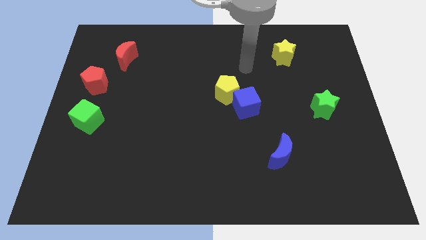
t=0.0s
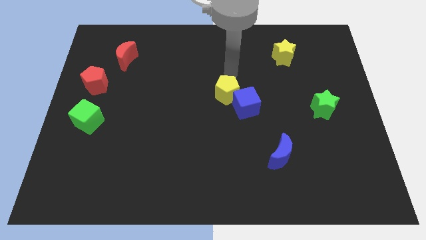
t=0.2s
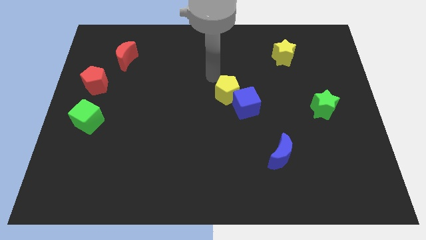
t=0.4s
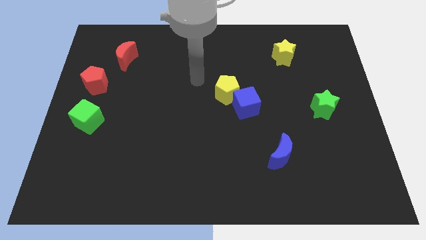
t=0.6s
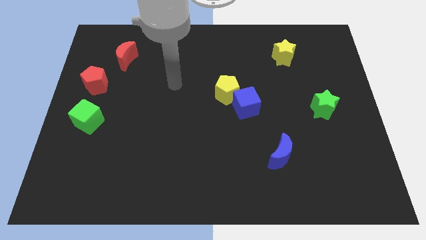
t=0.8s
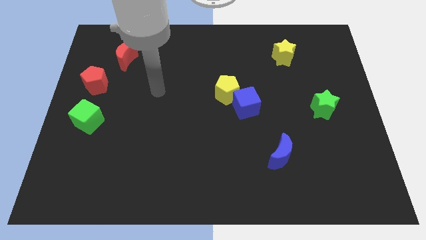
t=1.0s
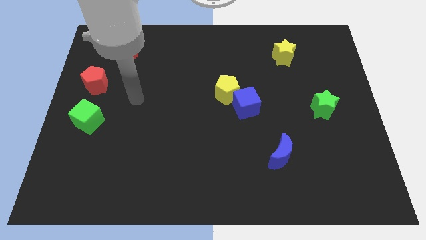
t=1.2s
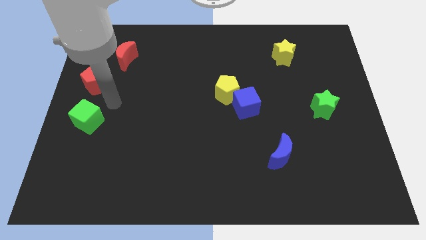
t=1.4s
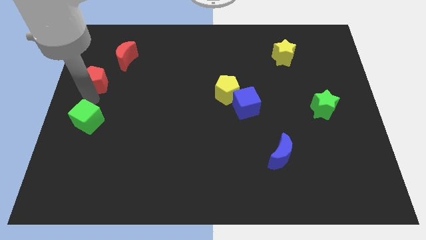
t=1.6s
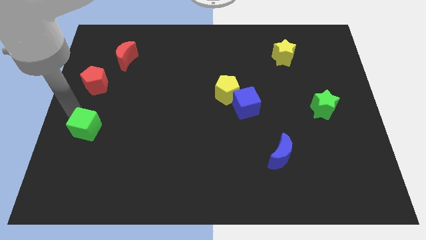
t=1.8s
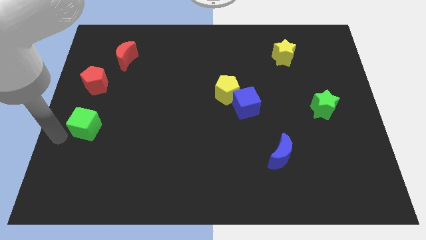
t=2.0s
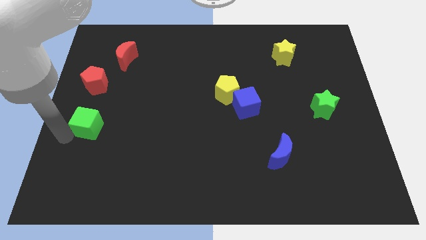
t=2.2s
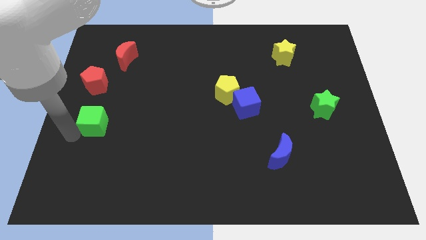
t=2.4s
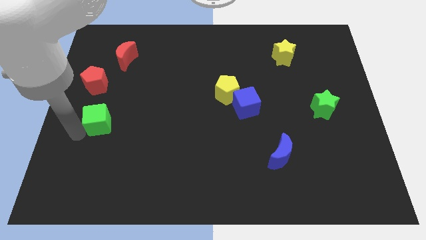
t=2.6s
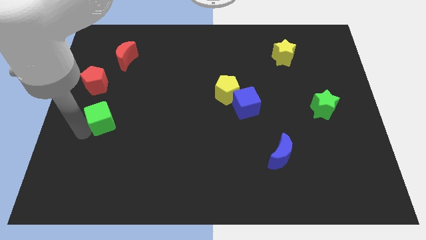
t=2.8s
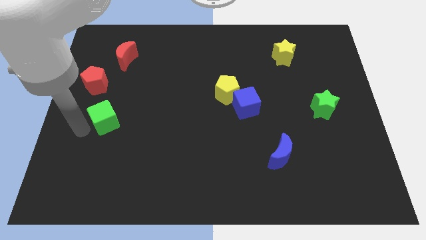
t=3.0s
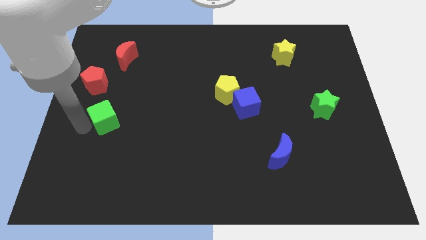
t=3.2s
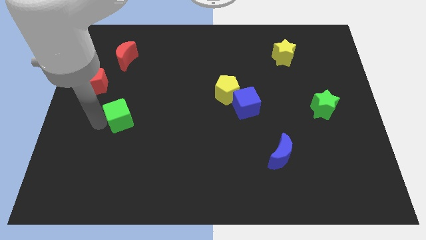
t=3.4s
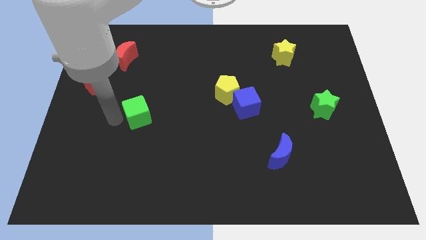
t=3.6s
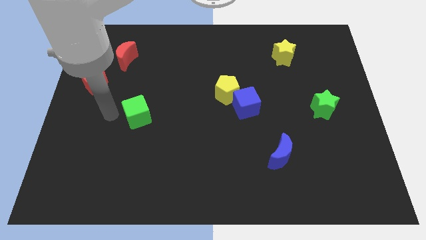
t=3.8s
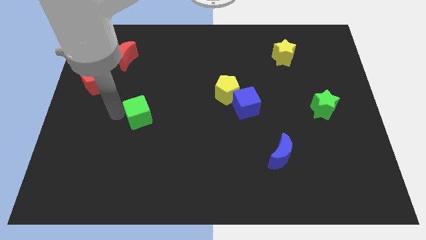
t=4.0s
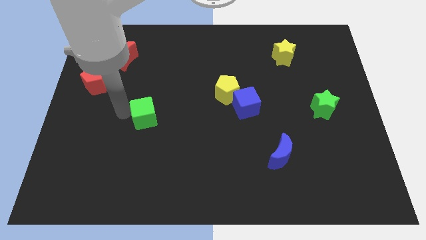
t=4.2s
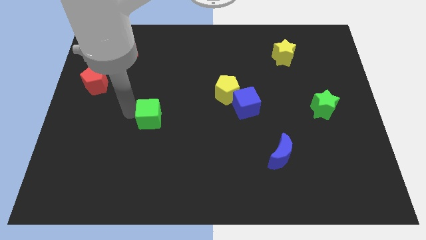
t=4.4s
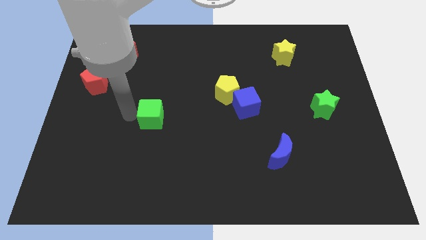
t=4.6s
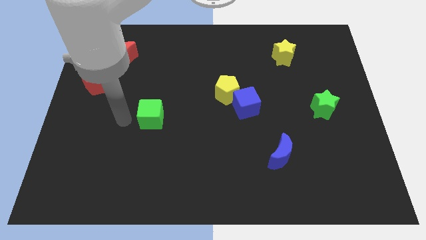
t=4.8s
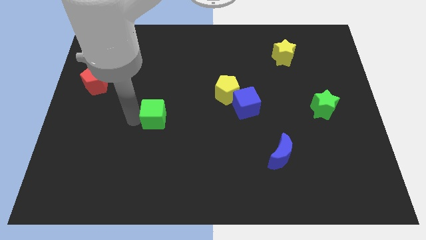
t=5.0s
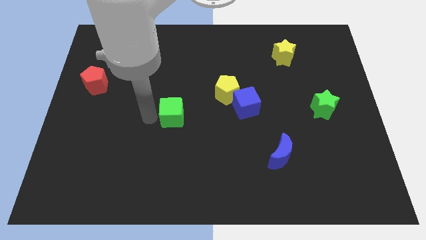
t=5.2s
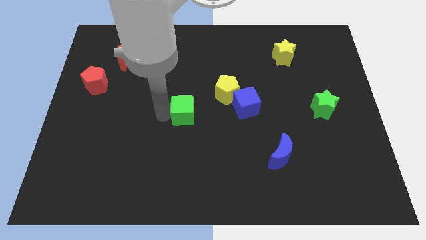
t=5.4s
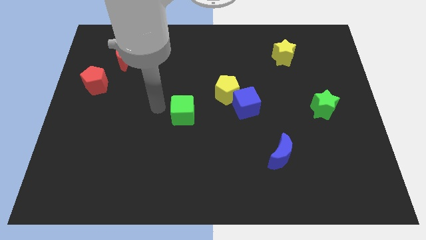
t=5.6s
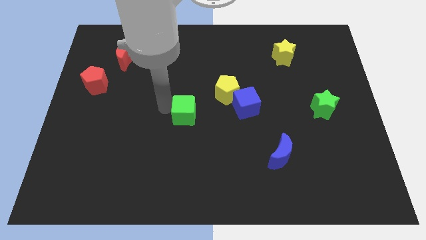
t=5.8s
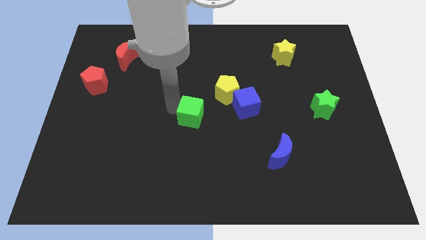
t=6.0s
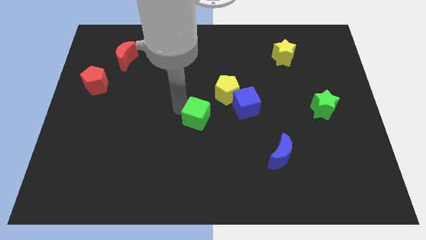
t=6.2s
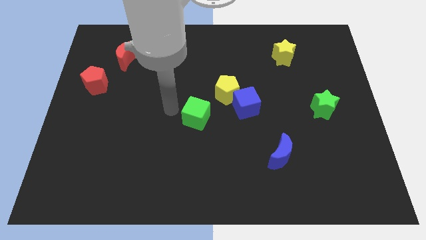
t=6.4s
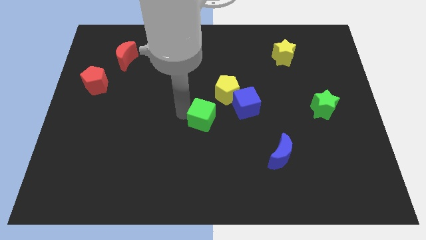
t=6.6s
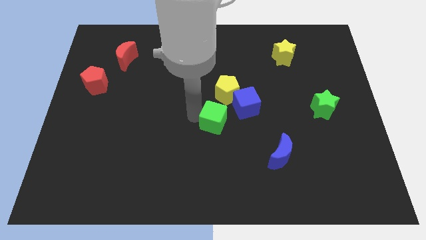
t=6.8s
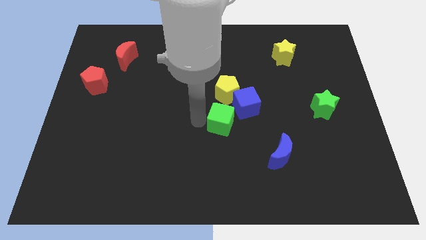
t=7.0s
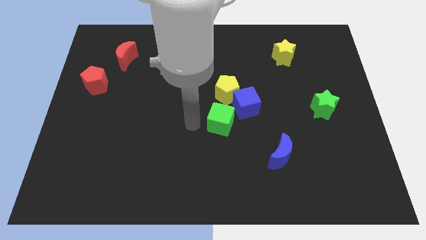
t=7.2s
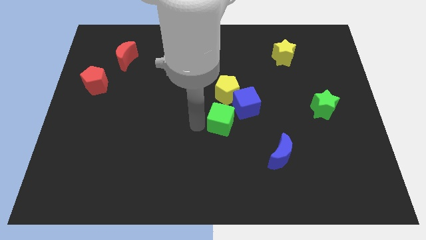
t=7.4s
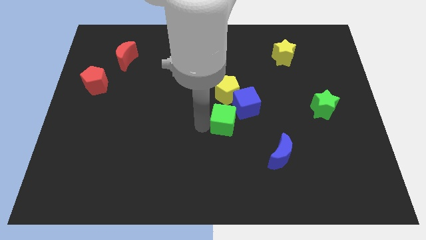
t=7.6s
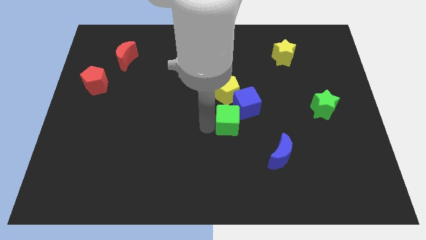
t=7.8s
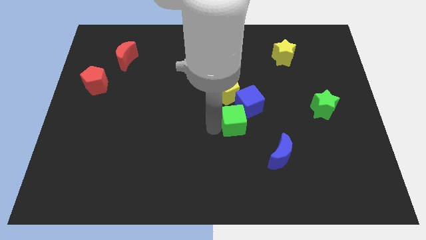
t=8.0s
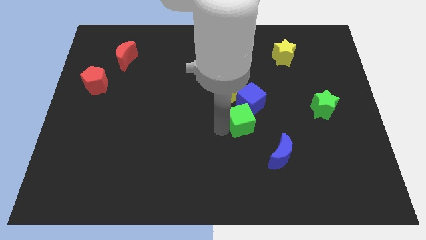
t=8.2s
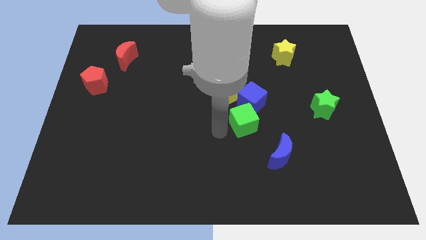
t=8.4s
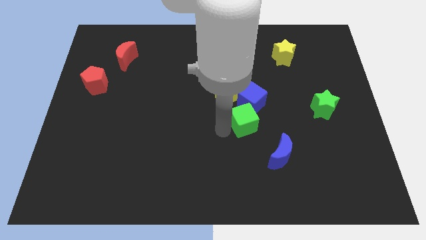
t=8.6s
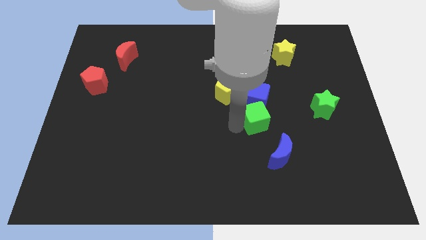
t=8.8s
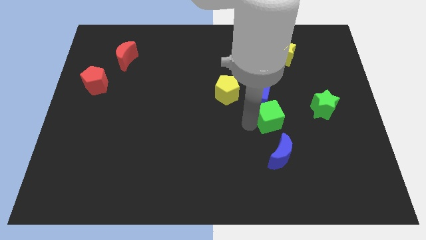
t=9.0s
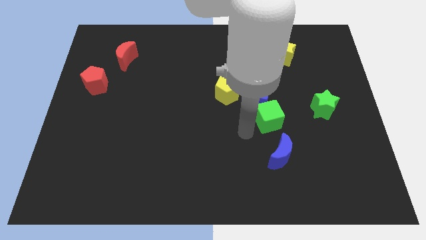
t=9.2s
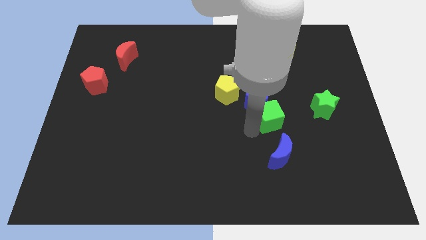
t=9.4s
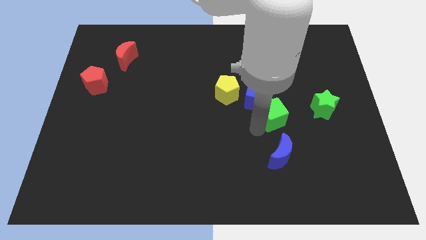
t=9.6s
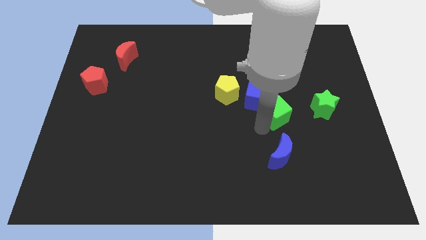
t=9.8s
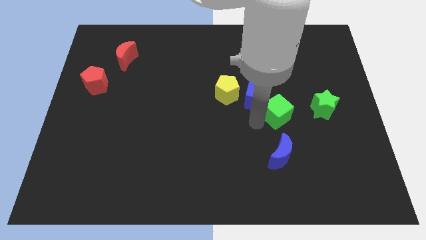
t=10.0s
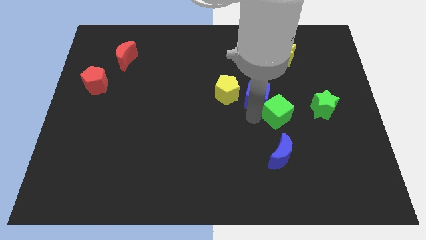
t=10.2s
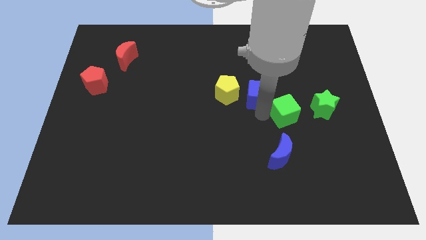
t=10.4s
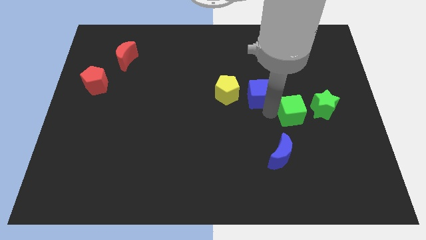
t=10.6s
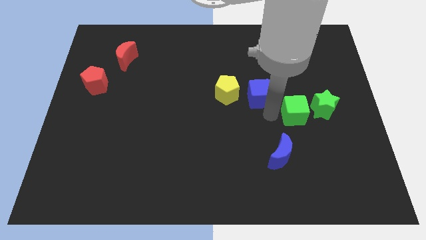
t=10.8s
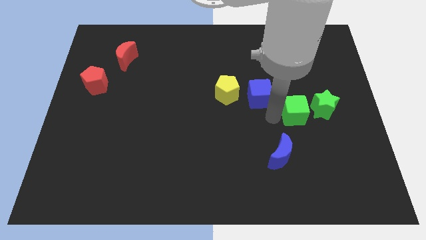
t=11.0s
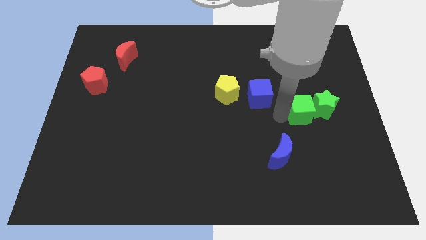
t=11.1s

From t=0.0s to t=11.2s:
put the green cube towards the green star

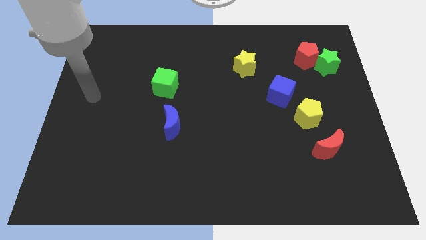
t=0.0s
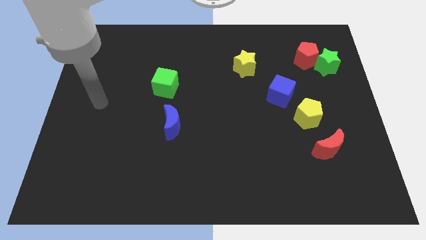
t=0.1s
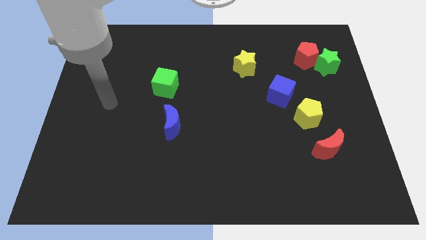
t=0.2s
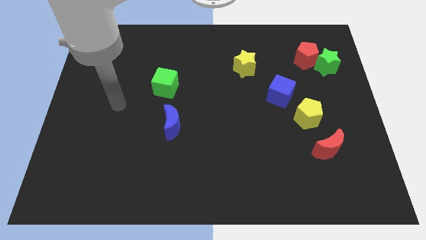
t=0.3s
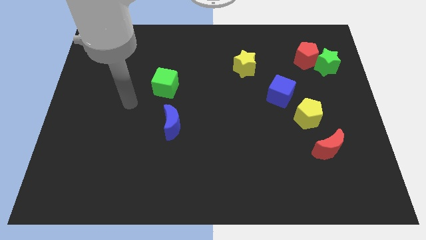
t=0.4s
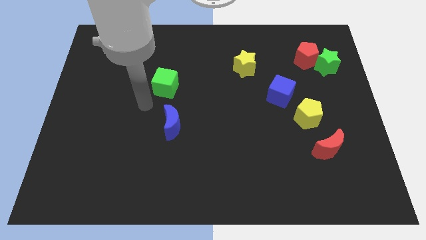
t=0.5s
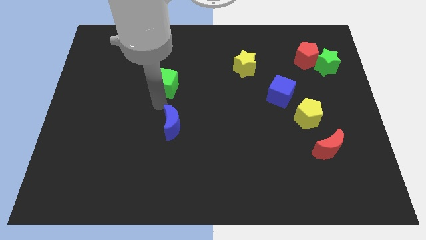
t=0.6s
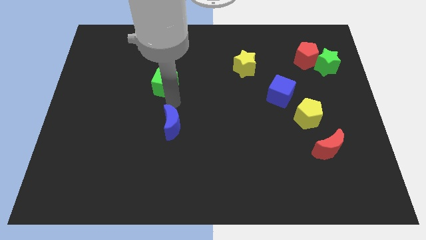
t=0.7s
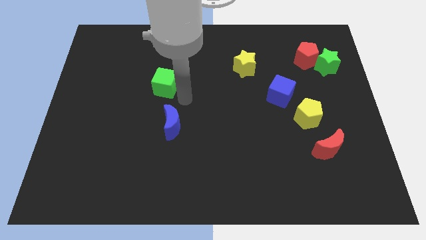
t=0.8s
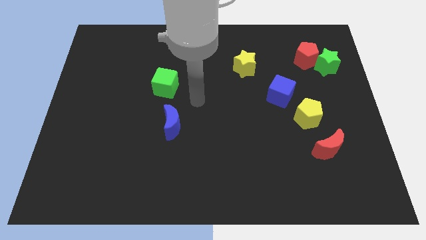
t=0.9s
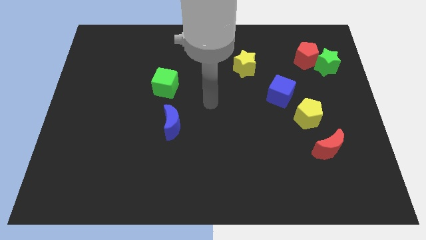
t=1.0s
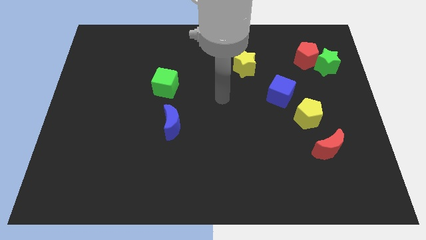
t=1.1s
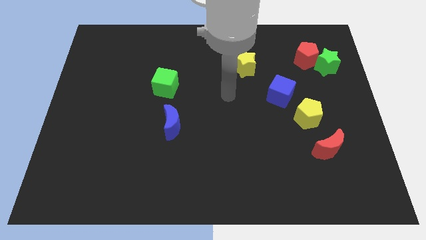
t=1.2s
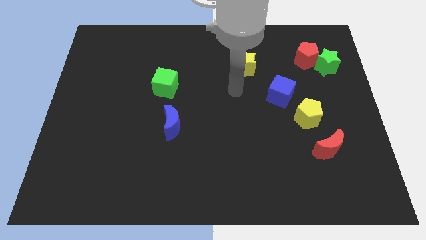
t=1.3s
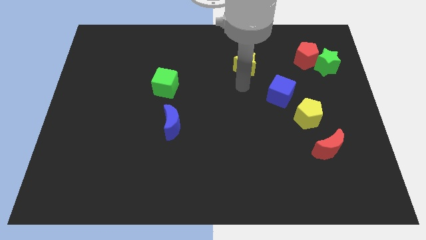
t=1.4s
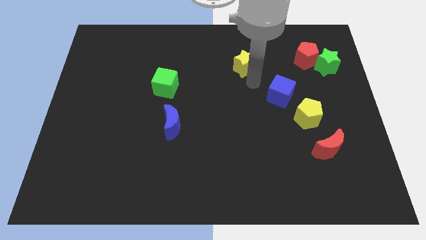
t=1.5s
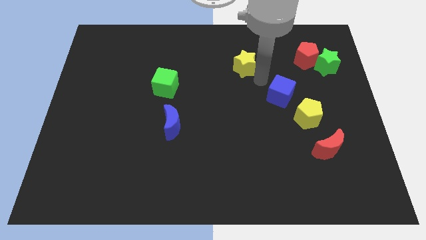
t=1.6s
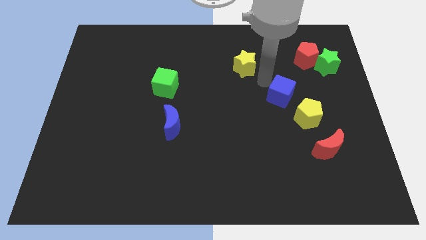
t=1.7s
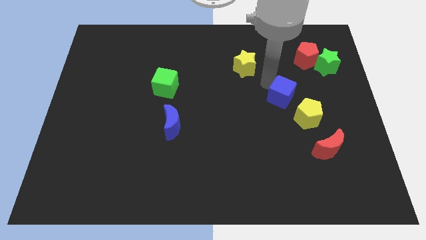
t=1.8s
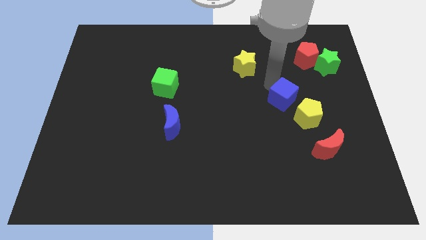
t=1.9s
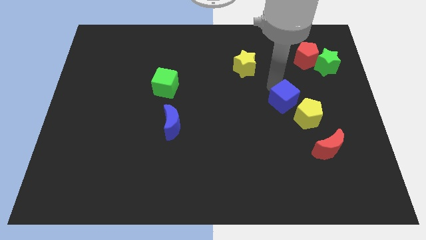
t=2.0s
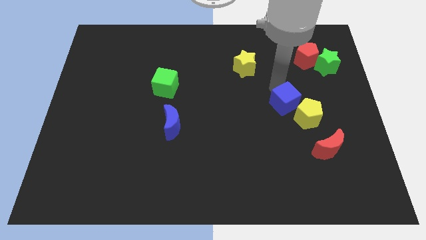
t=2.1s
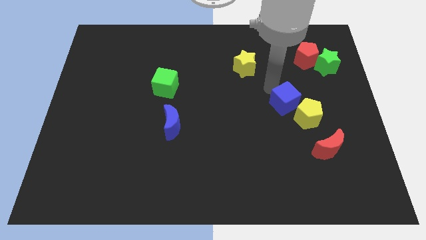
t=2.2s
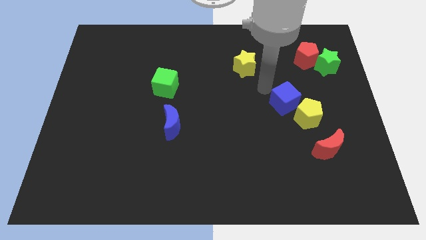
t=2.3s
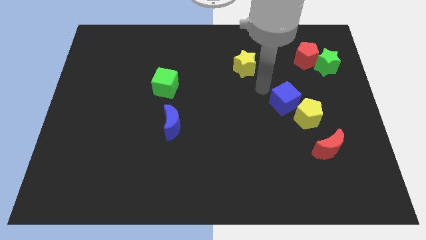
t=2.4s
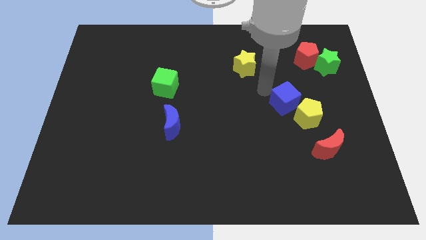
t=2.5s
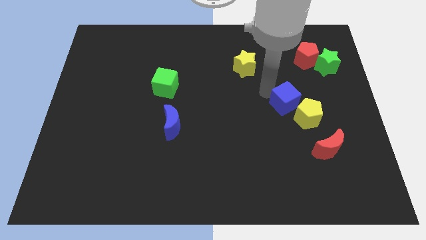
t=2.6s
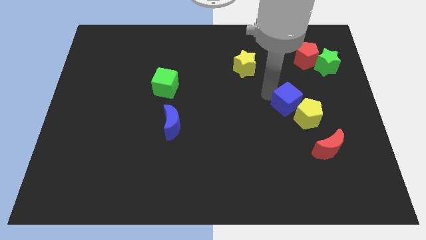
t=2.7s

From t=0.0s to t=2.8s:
slide the blue cube to the yellow pentagon
